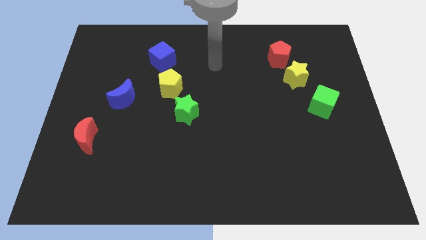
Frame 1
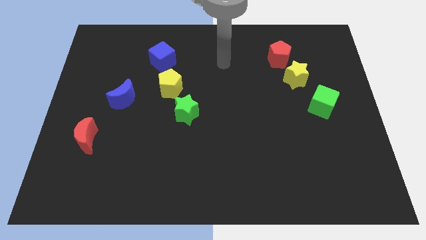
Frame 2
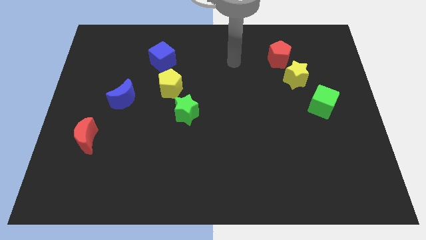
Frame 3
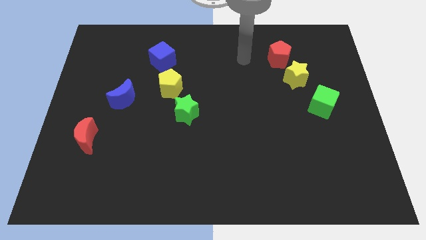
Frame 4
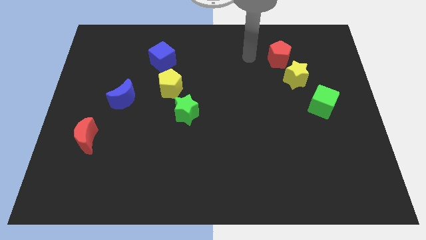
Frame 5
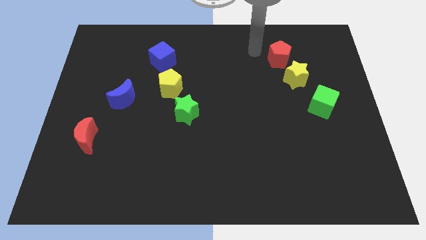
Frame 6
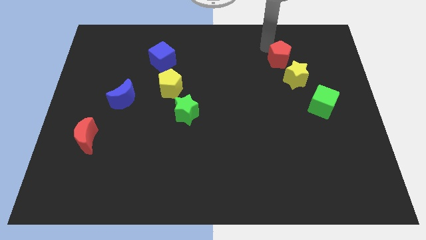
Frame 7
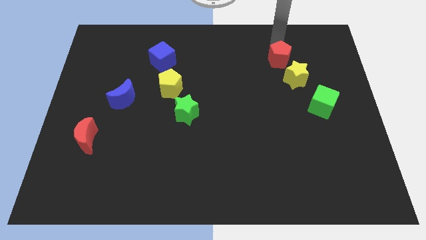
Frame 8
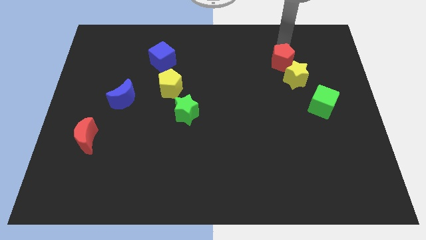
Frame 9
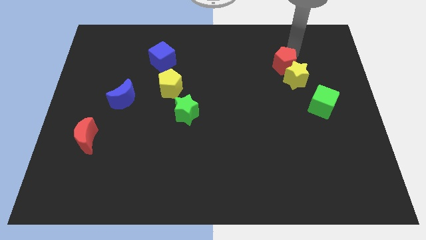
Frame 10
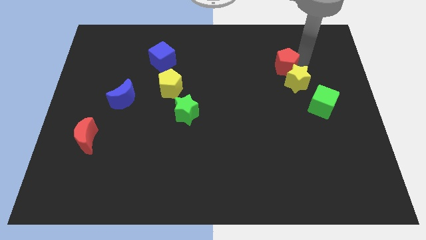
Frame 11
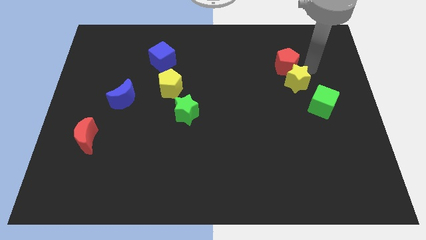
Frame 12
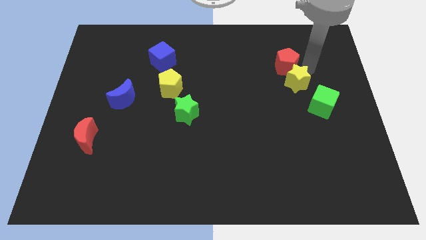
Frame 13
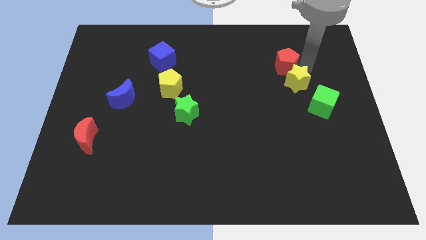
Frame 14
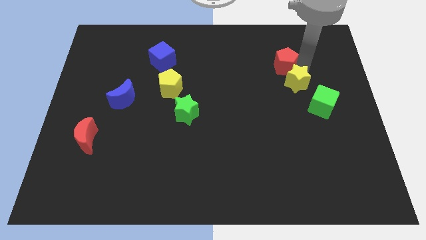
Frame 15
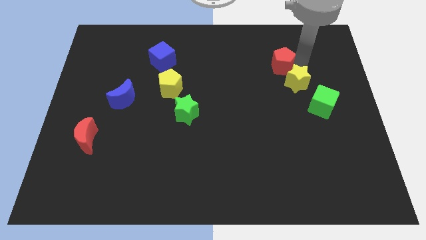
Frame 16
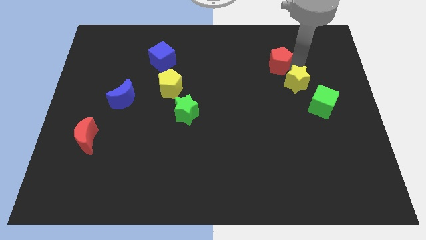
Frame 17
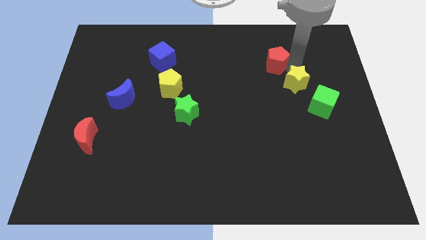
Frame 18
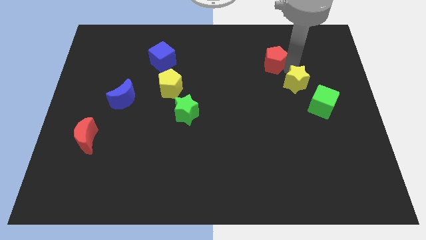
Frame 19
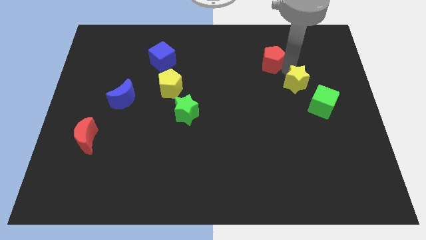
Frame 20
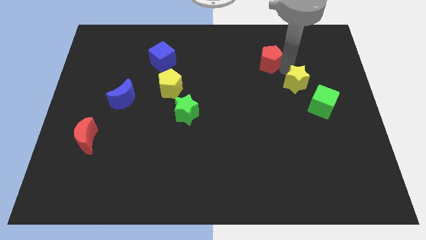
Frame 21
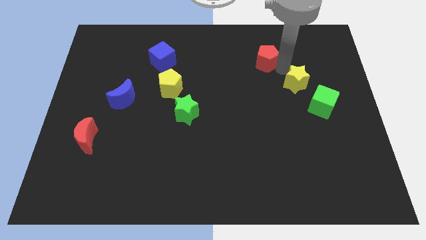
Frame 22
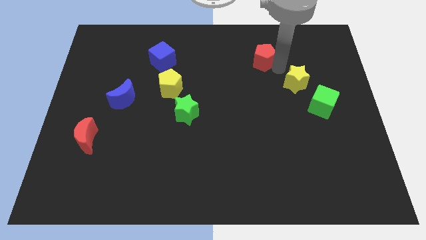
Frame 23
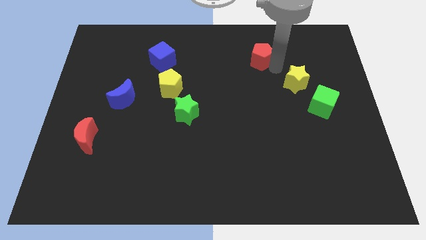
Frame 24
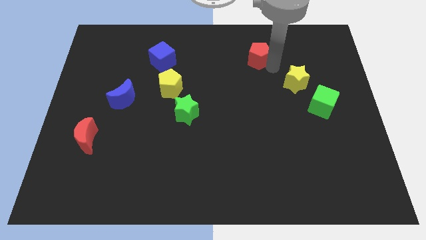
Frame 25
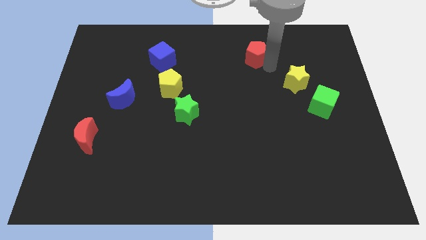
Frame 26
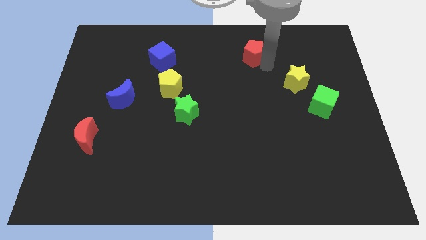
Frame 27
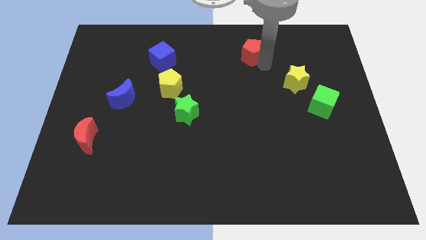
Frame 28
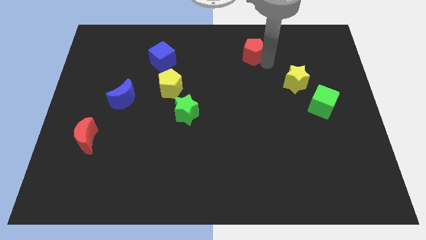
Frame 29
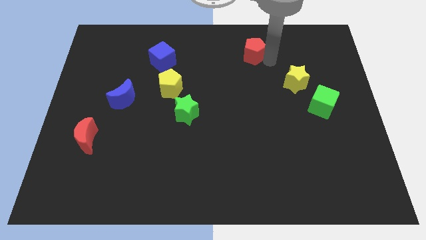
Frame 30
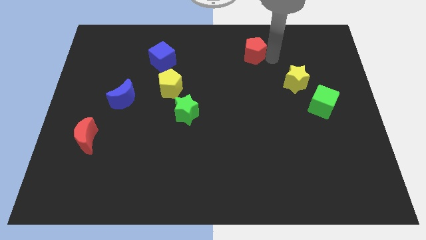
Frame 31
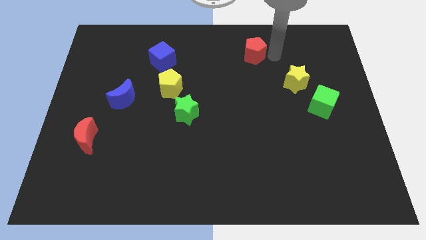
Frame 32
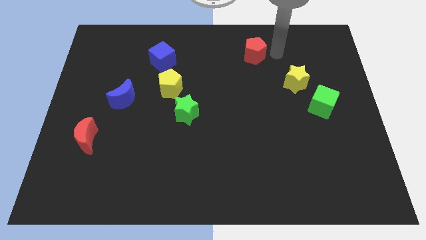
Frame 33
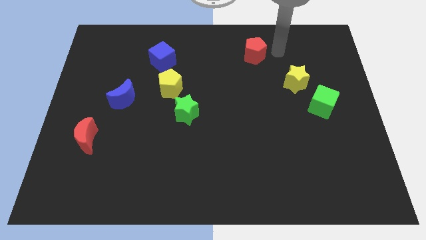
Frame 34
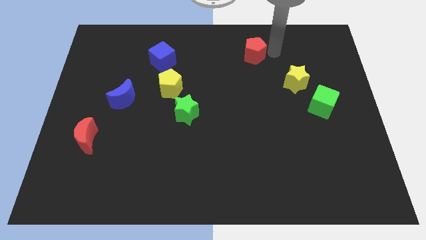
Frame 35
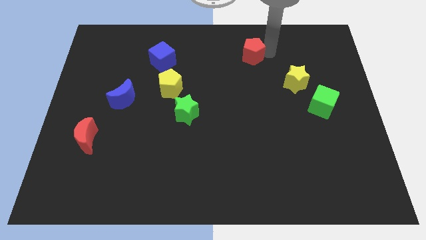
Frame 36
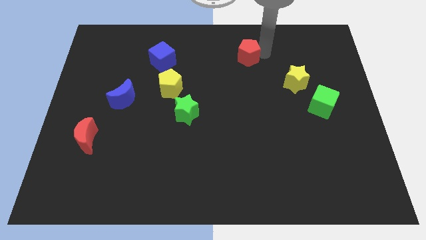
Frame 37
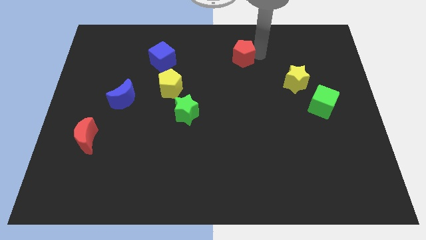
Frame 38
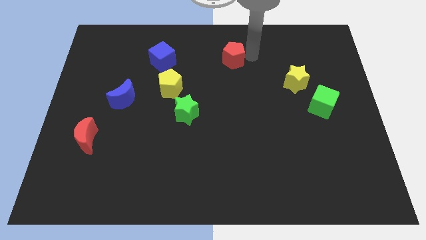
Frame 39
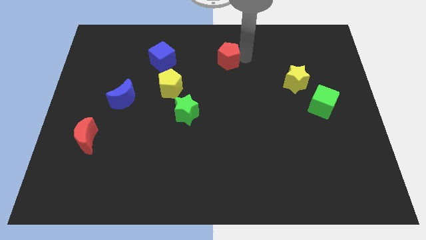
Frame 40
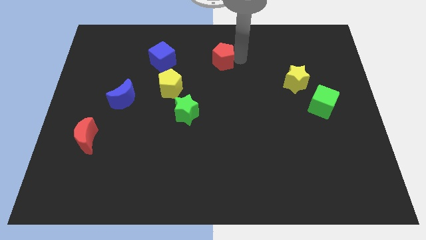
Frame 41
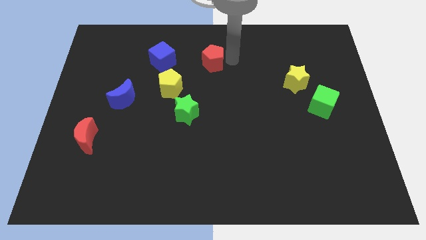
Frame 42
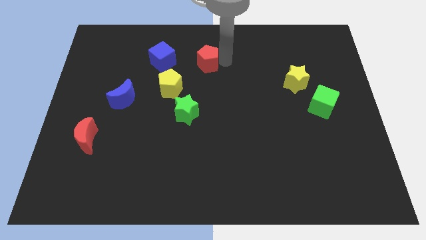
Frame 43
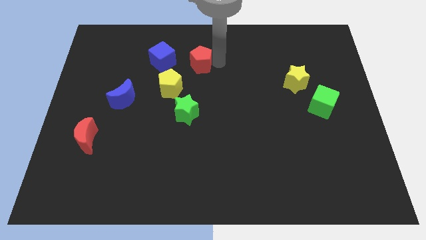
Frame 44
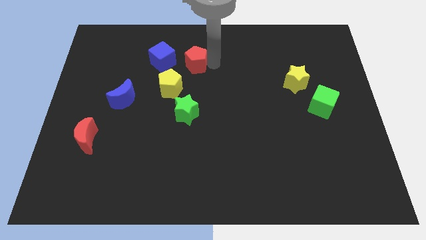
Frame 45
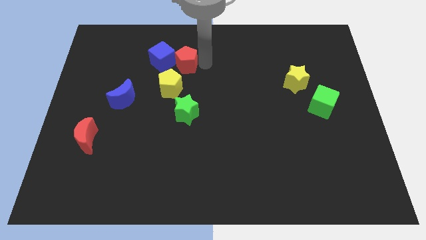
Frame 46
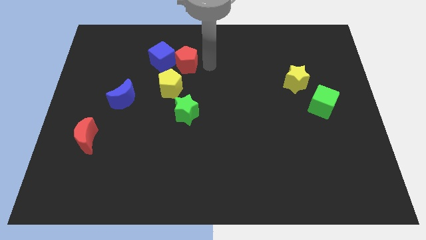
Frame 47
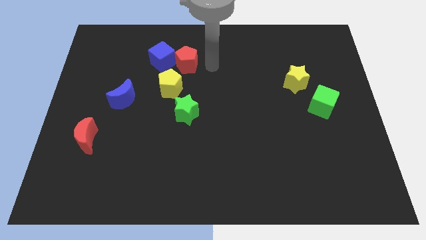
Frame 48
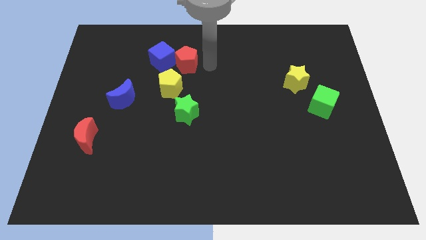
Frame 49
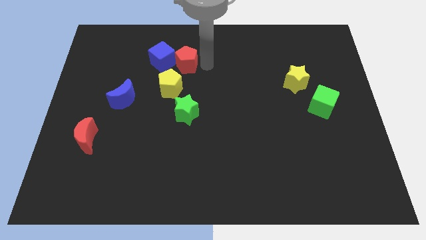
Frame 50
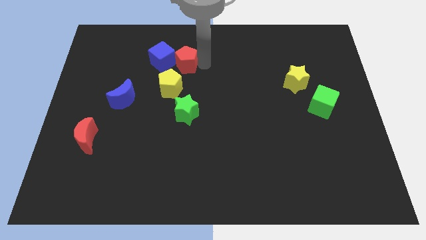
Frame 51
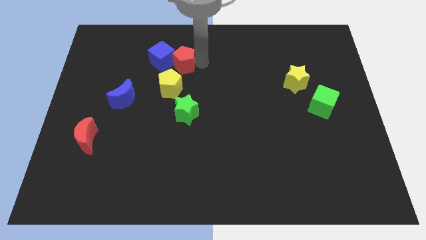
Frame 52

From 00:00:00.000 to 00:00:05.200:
put the red pentagon towards the blue cube

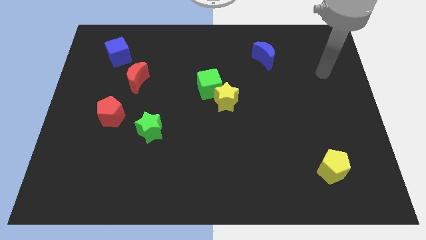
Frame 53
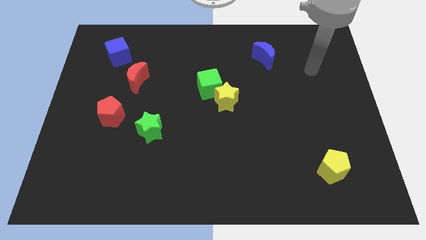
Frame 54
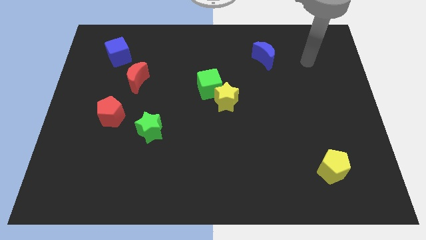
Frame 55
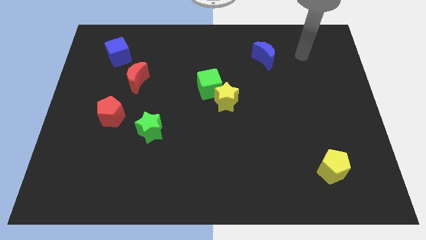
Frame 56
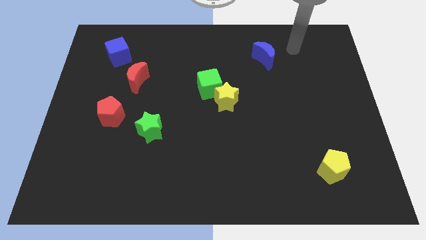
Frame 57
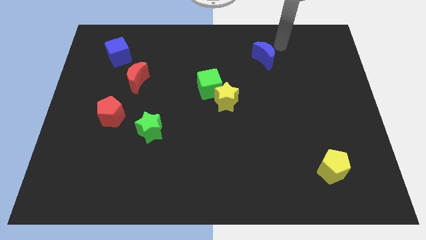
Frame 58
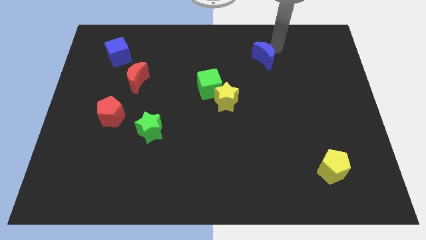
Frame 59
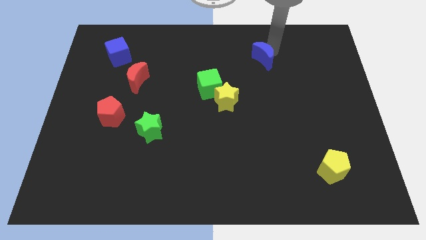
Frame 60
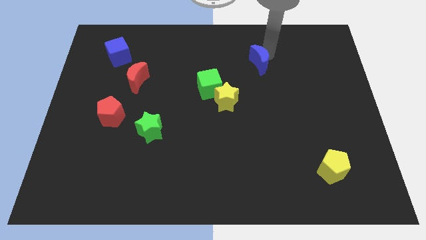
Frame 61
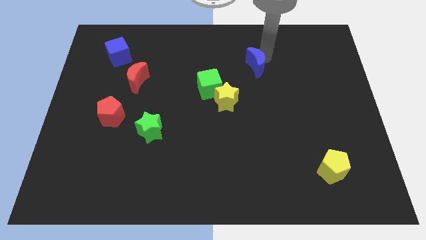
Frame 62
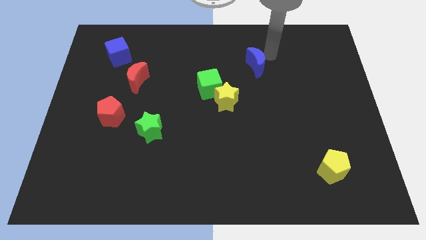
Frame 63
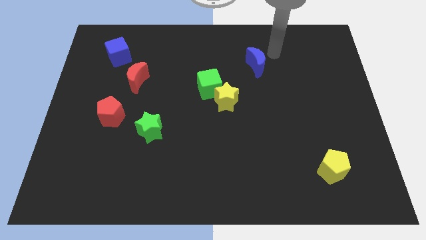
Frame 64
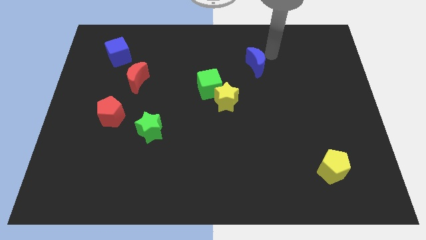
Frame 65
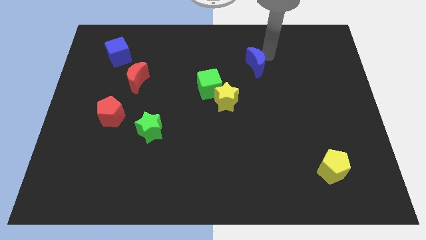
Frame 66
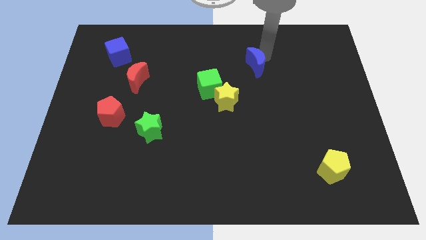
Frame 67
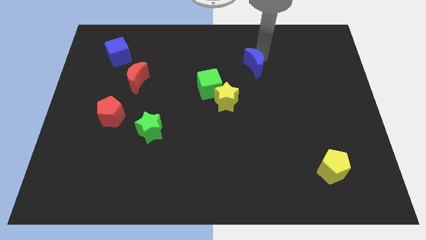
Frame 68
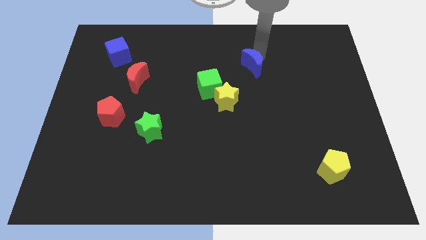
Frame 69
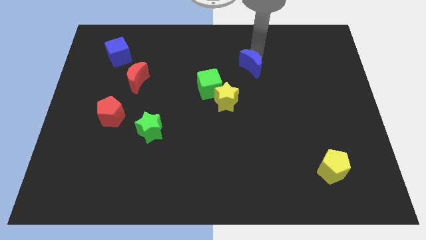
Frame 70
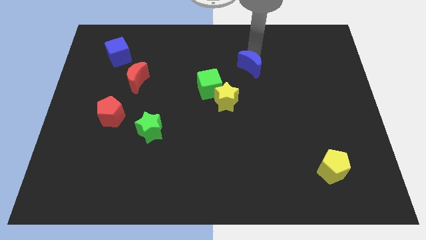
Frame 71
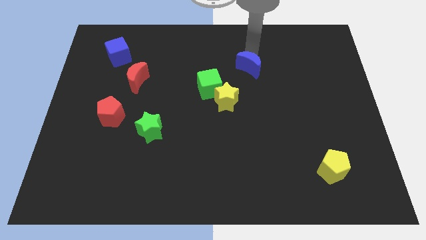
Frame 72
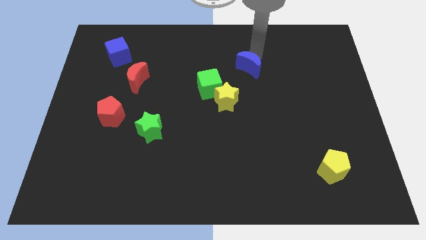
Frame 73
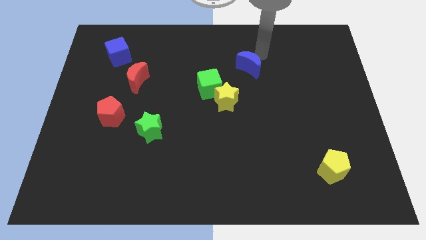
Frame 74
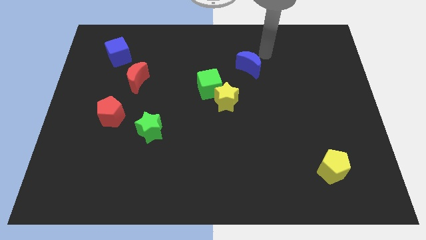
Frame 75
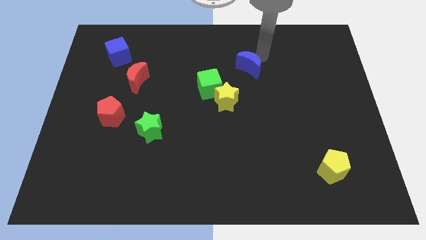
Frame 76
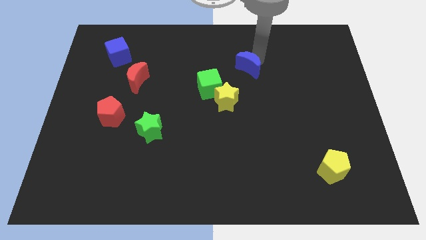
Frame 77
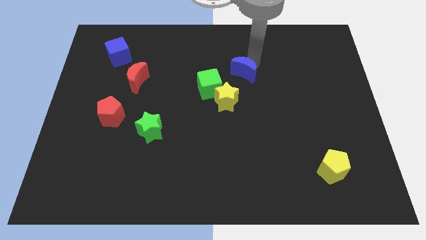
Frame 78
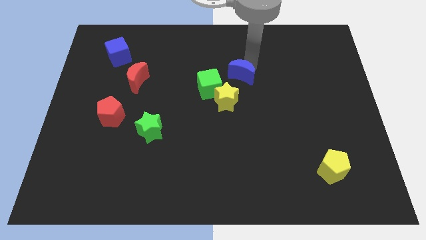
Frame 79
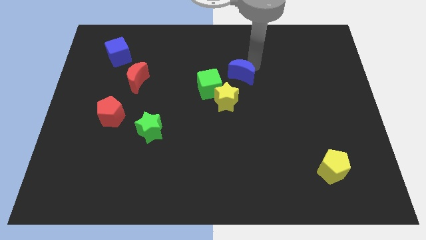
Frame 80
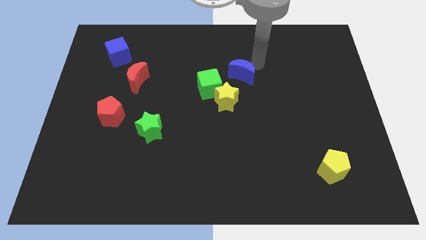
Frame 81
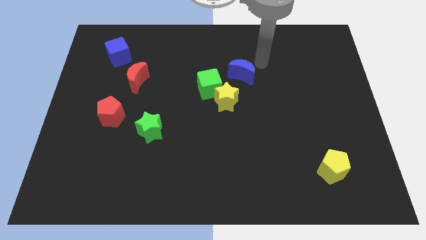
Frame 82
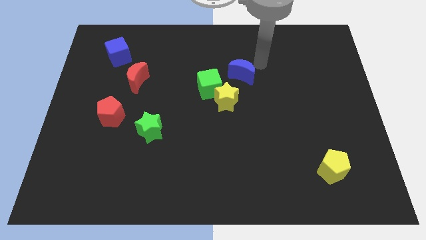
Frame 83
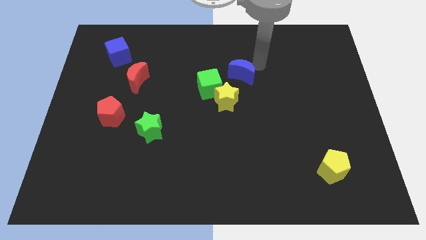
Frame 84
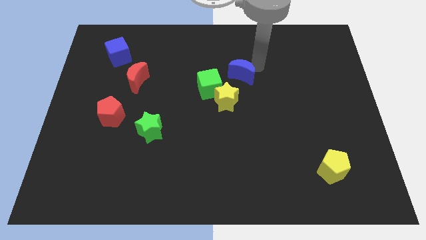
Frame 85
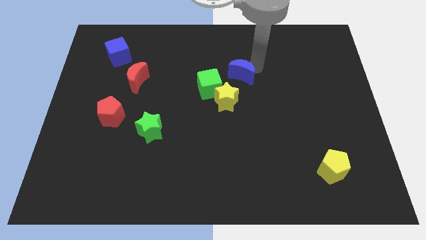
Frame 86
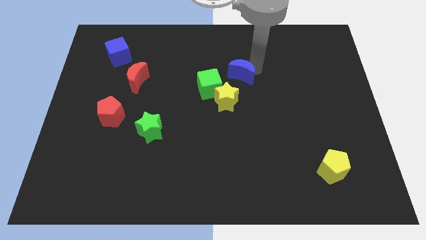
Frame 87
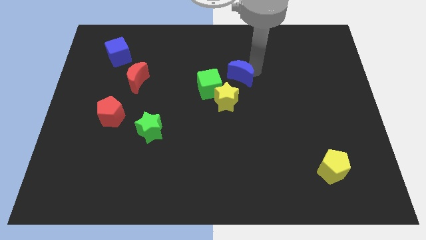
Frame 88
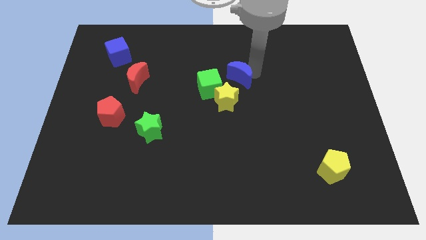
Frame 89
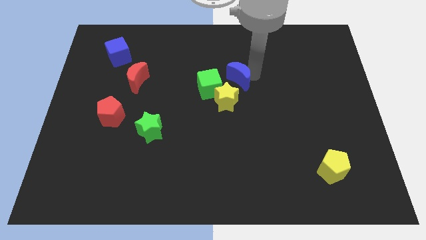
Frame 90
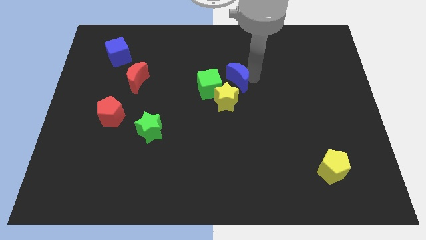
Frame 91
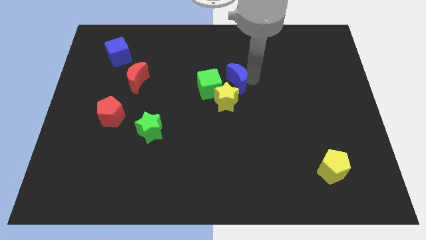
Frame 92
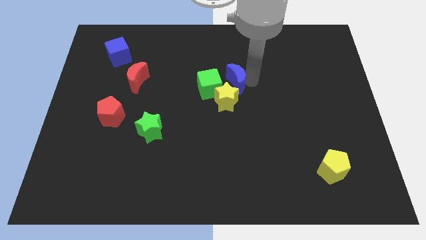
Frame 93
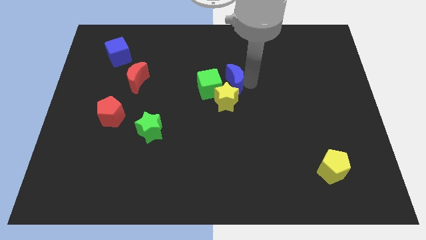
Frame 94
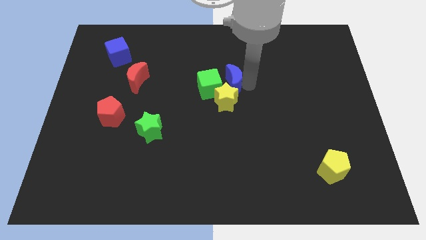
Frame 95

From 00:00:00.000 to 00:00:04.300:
slide the blue moon next to the green cube
